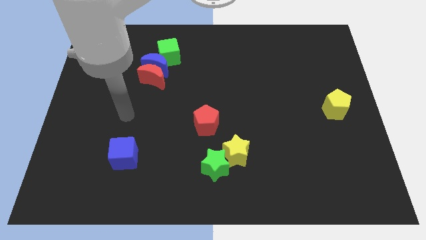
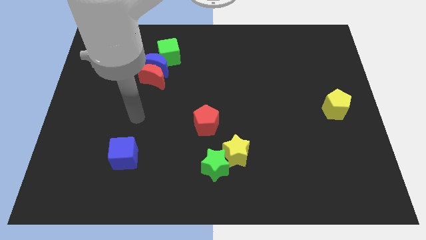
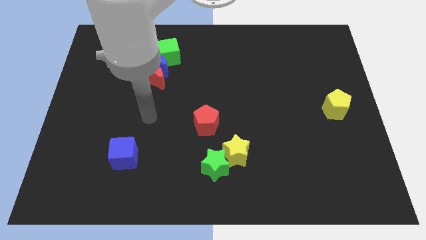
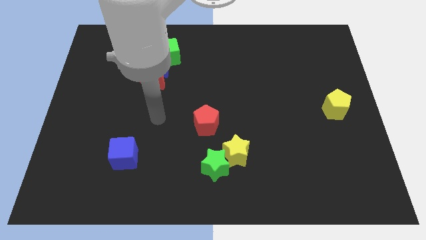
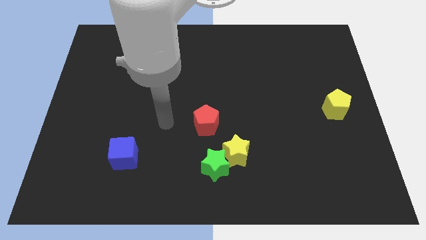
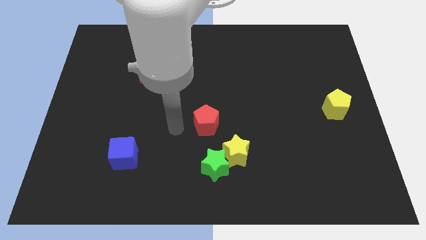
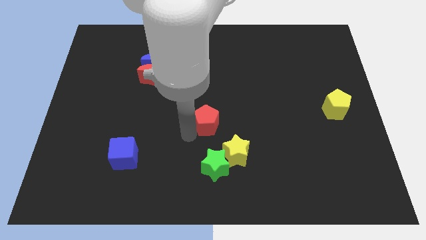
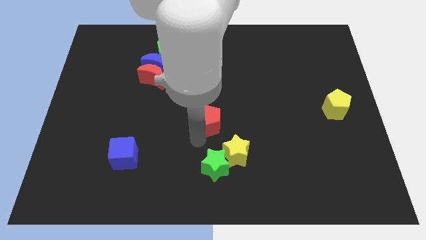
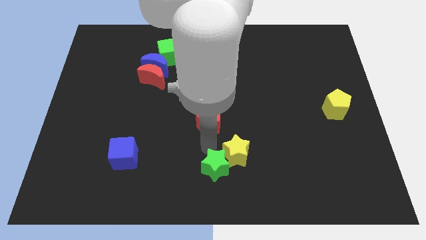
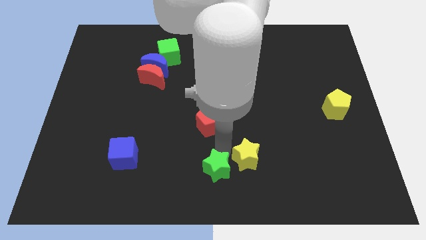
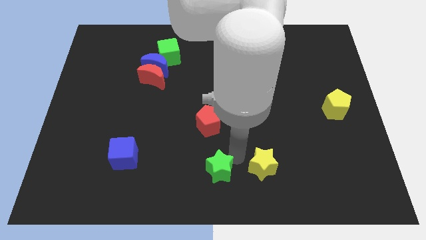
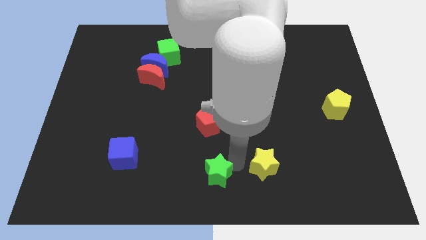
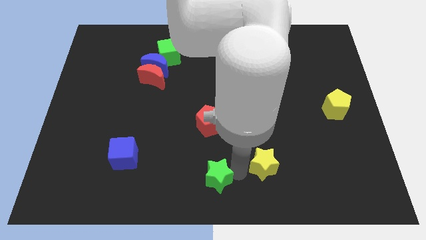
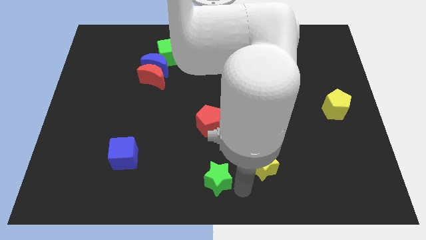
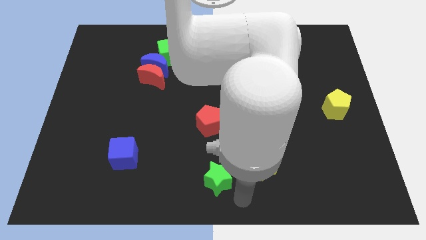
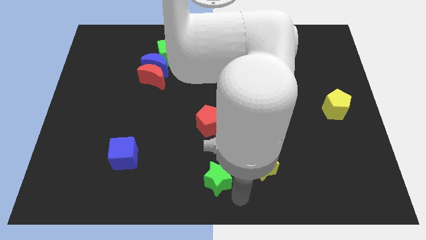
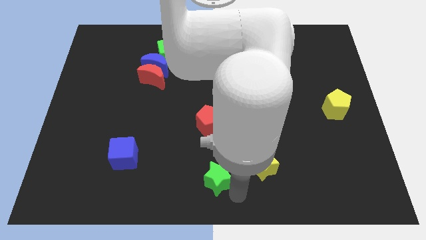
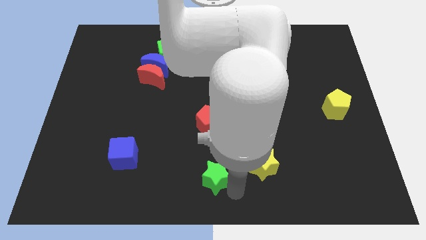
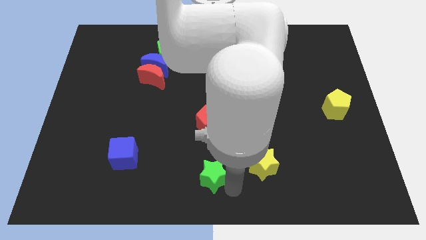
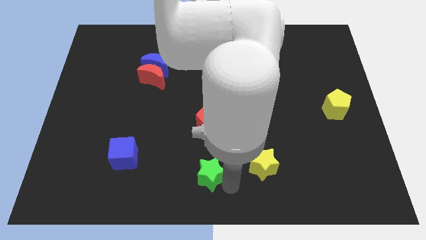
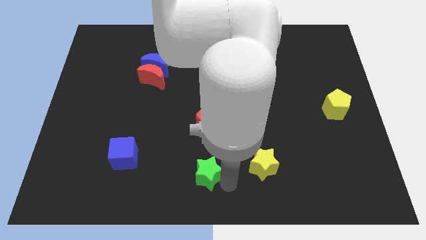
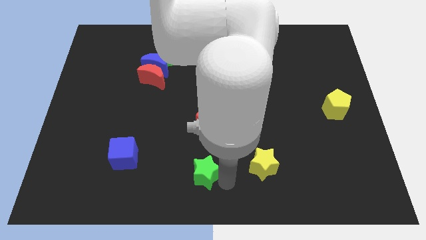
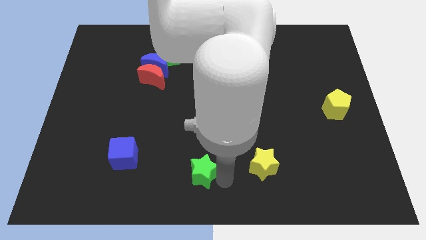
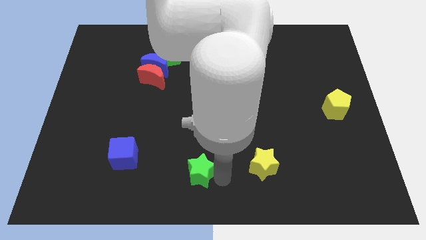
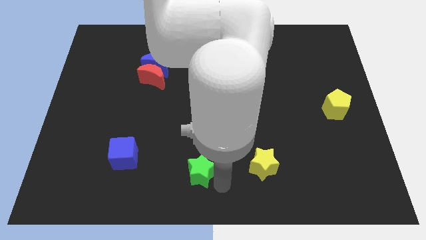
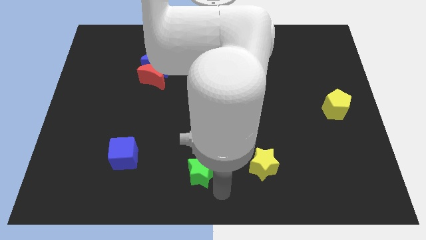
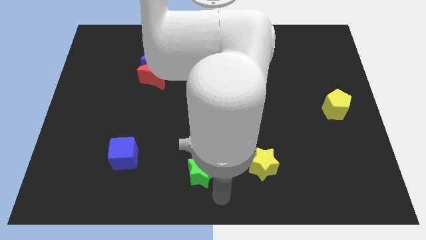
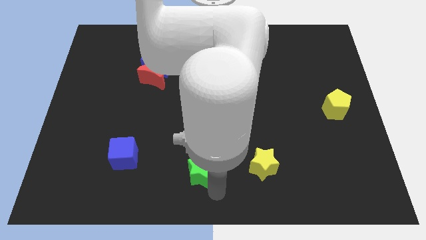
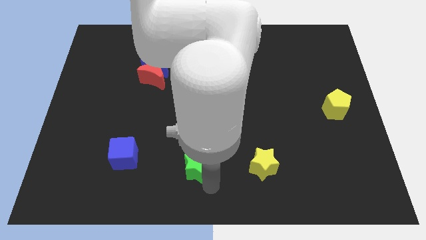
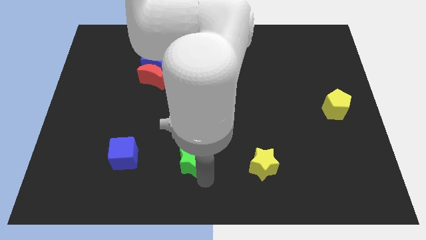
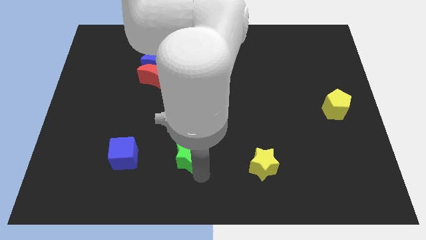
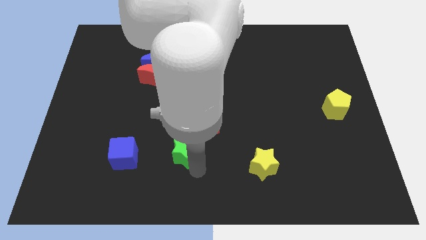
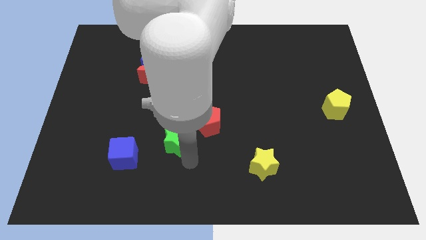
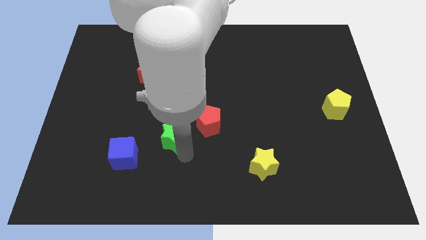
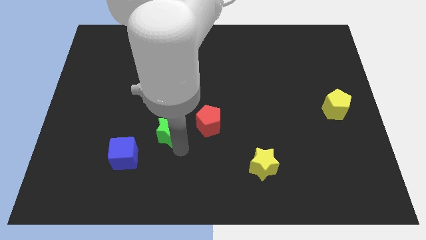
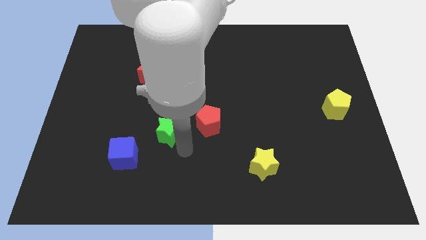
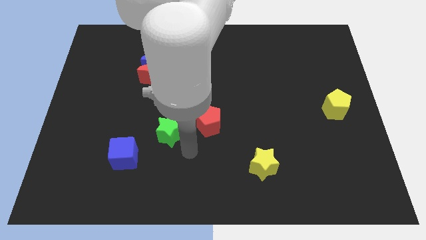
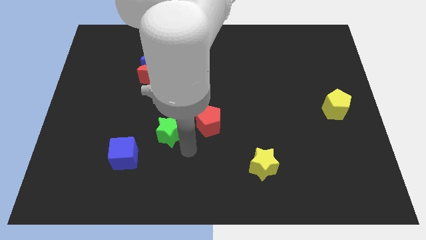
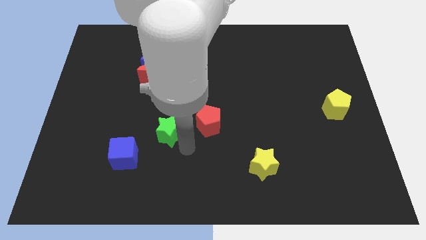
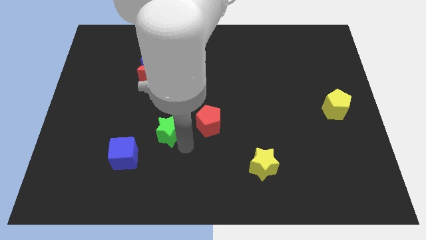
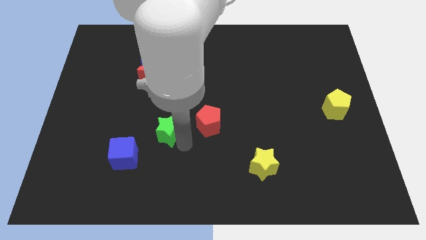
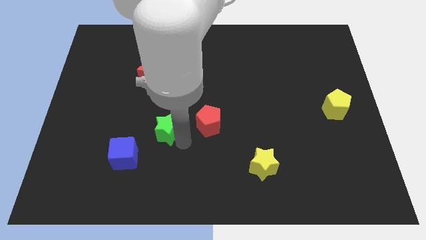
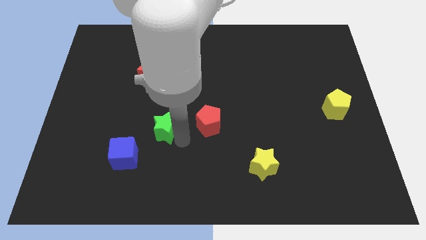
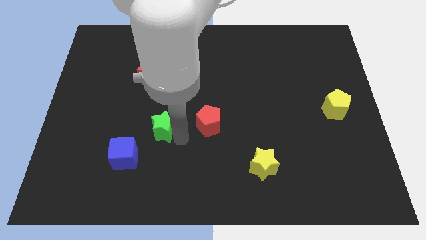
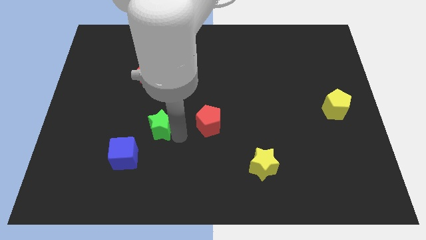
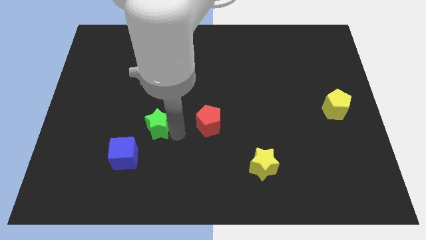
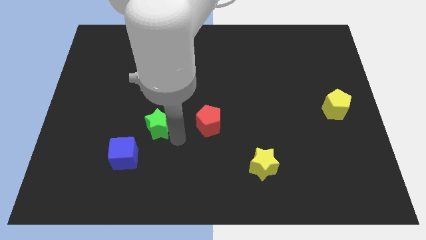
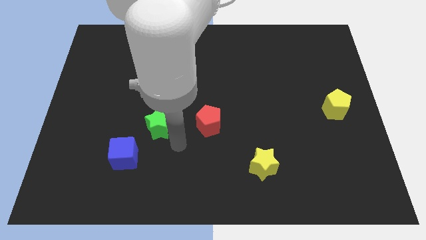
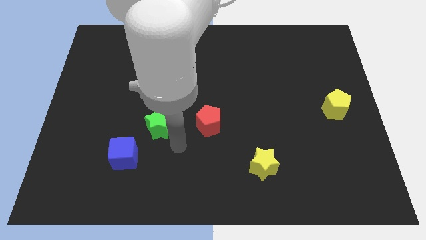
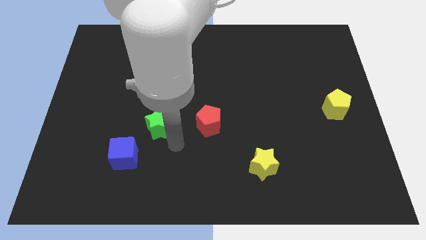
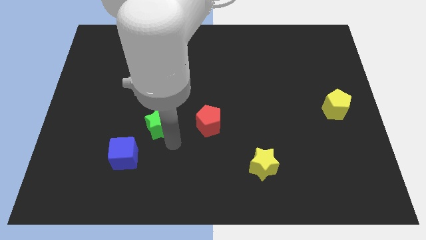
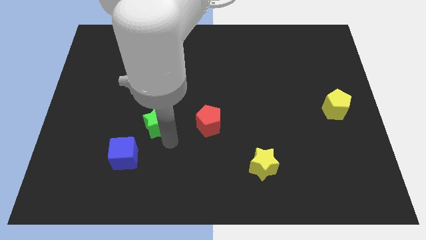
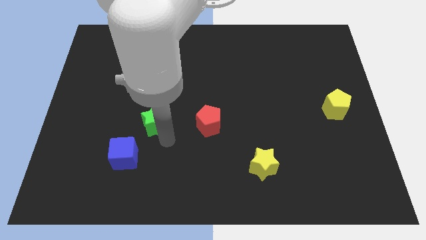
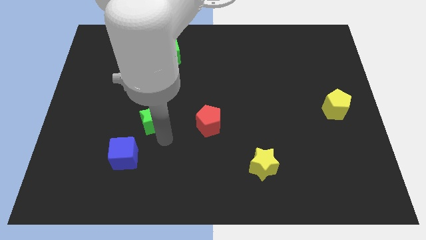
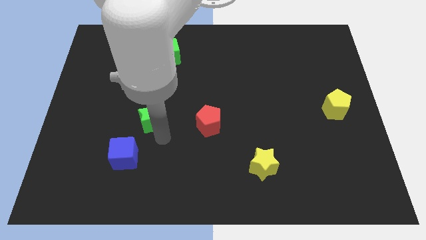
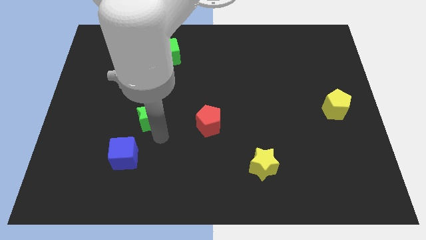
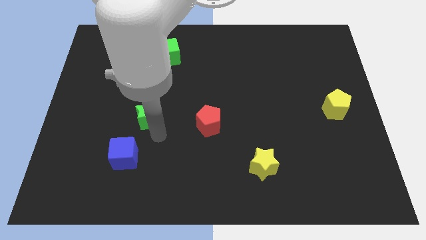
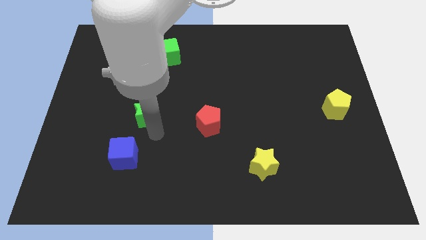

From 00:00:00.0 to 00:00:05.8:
push the green star up and to the left

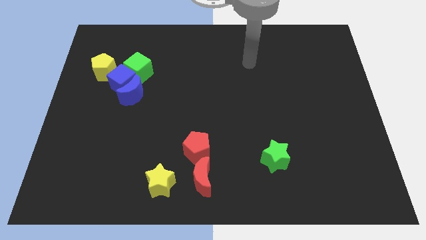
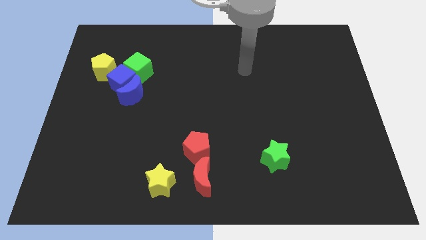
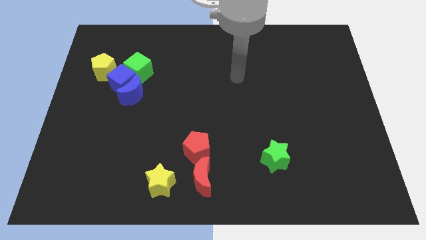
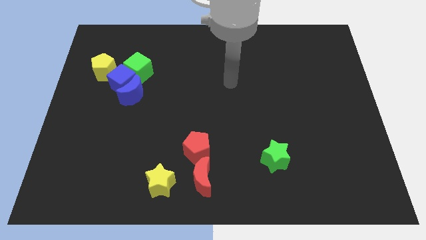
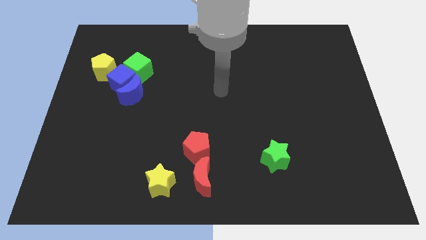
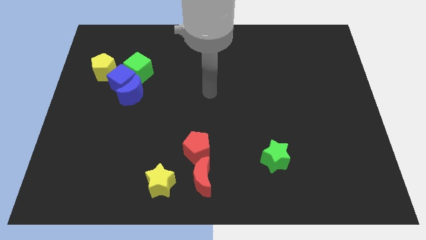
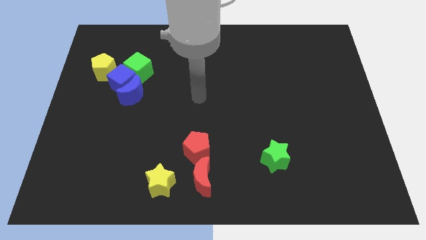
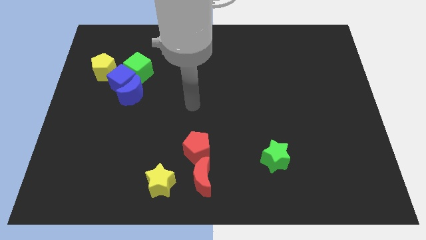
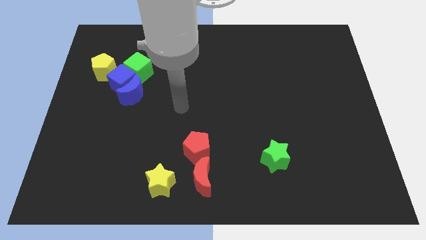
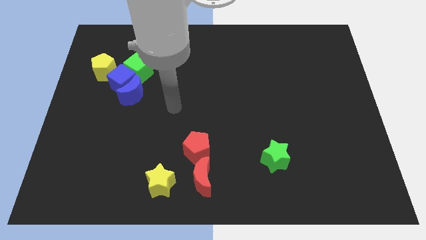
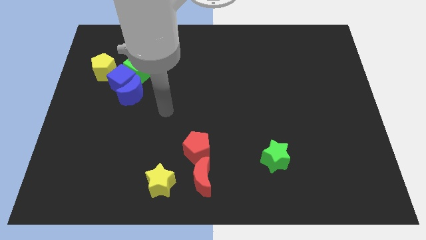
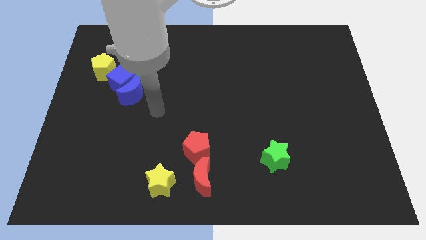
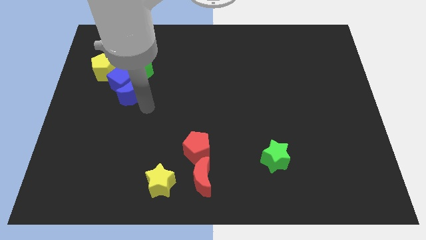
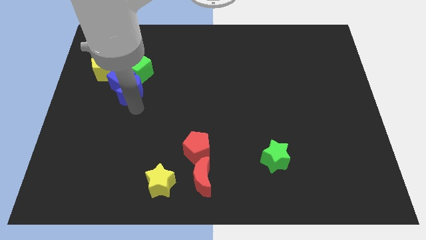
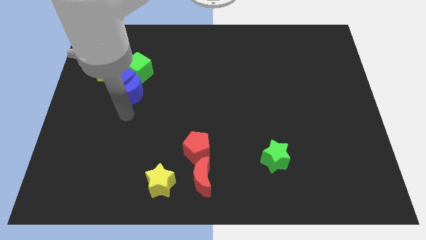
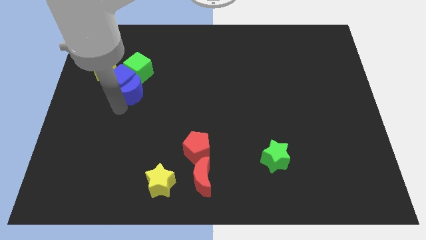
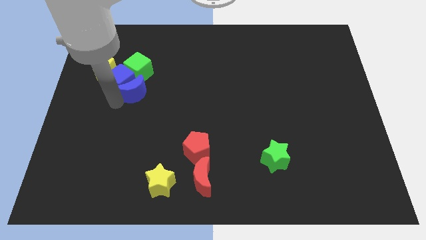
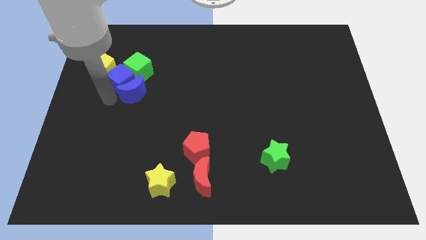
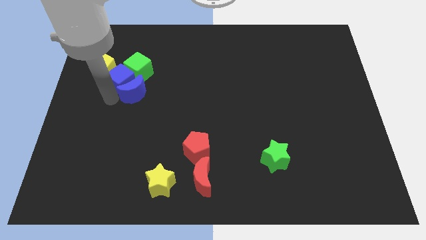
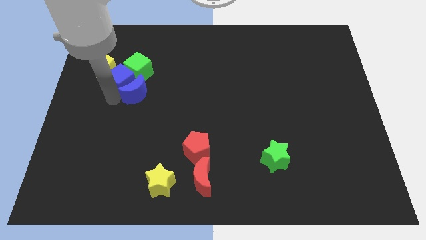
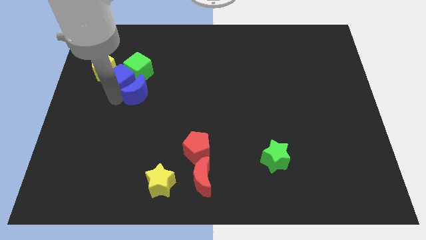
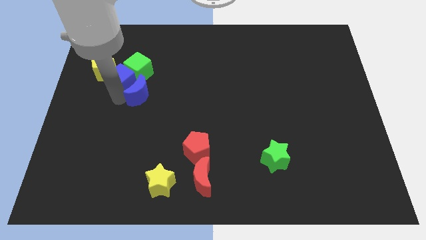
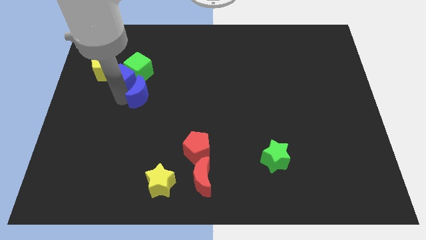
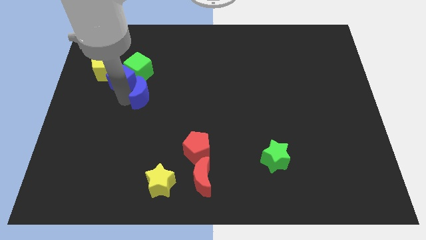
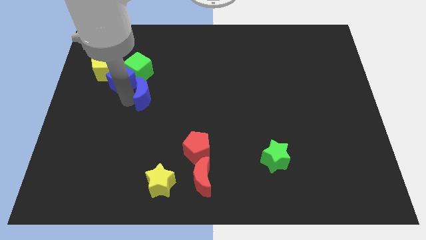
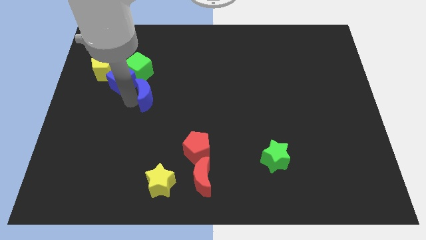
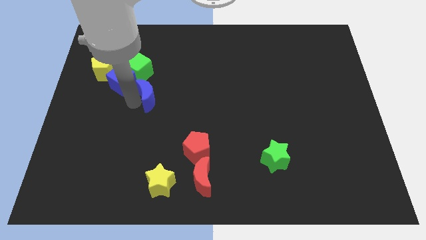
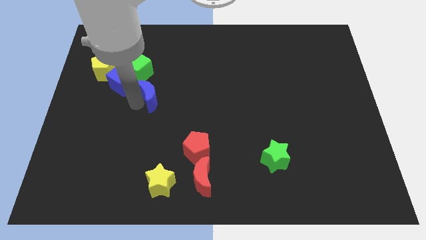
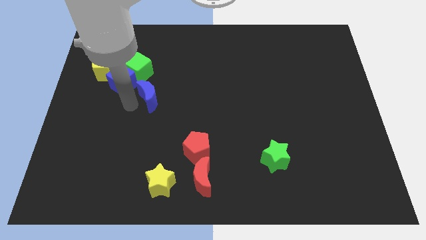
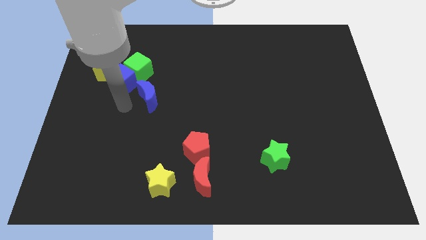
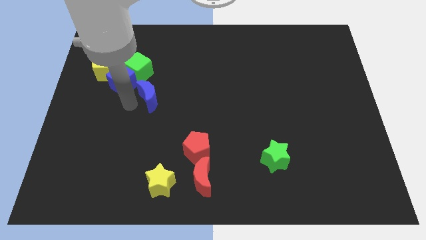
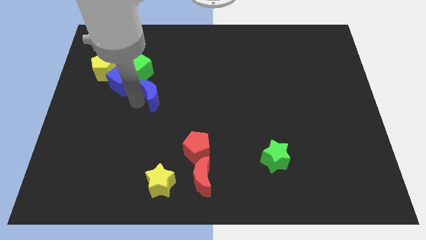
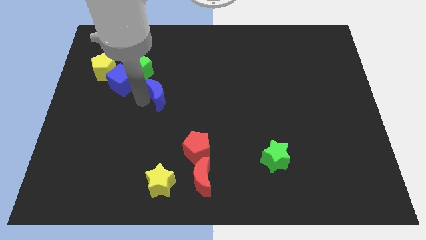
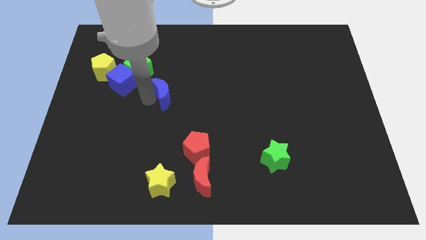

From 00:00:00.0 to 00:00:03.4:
slide the blue moon a bit to the right
